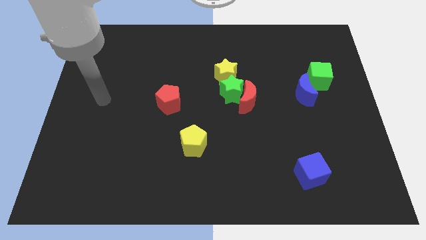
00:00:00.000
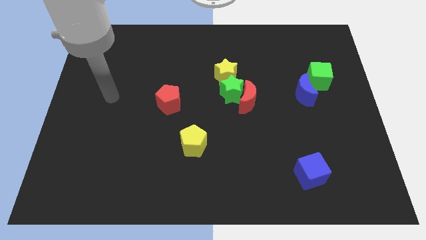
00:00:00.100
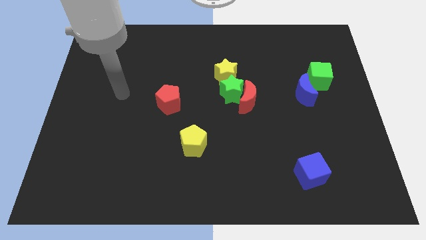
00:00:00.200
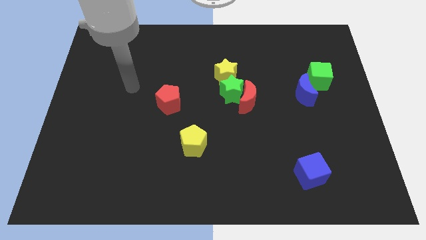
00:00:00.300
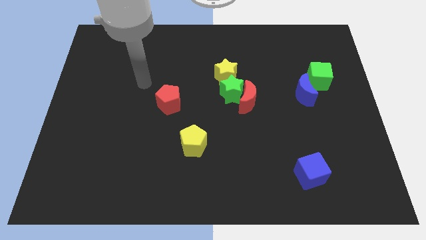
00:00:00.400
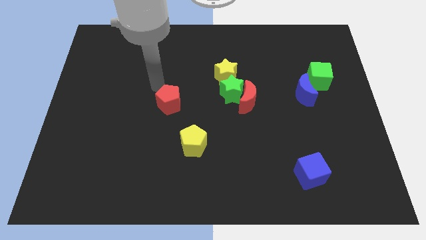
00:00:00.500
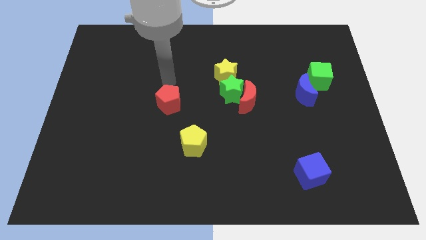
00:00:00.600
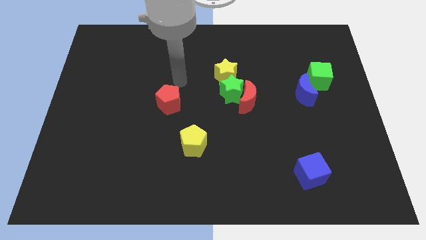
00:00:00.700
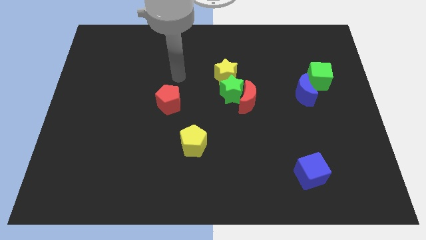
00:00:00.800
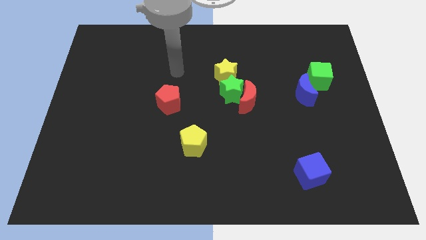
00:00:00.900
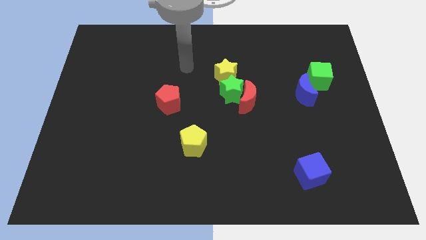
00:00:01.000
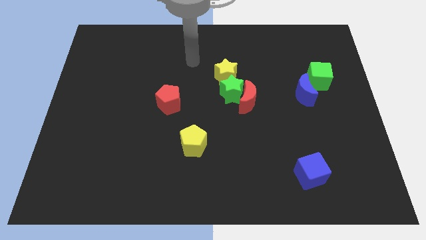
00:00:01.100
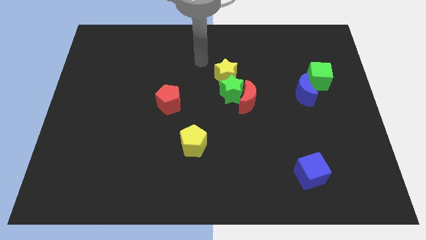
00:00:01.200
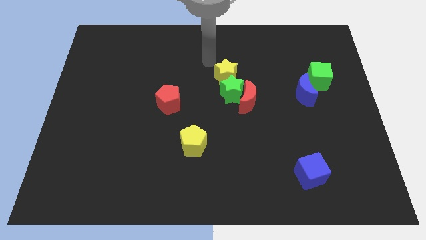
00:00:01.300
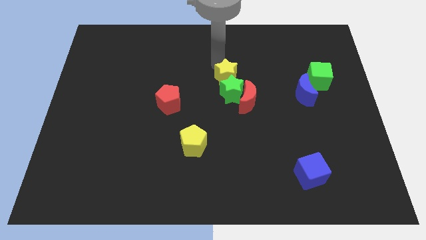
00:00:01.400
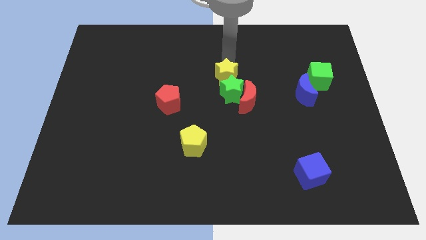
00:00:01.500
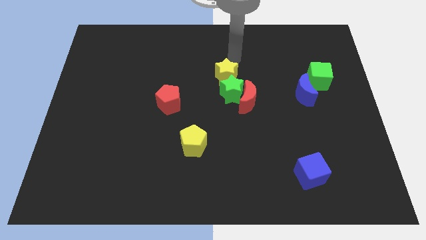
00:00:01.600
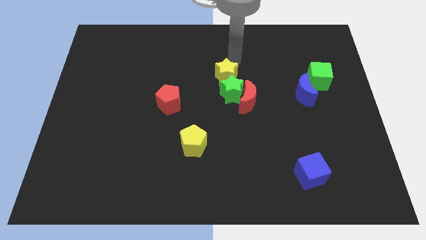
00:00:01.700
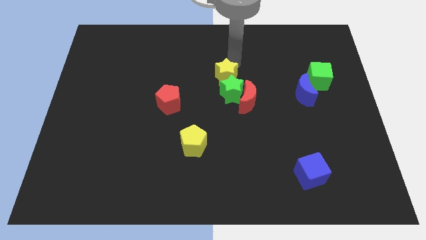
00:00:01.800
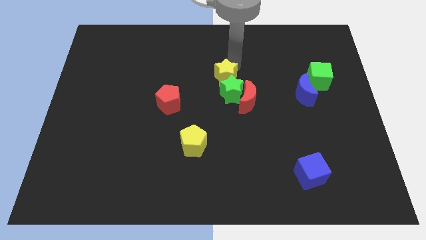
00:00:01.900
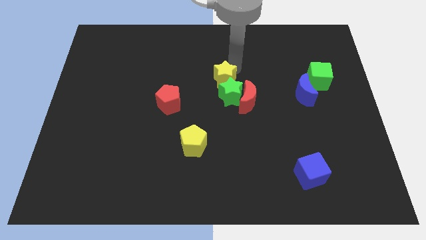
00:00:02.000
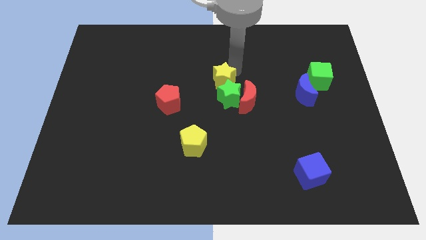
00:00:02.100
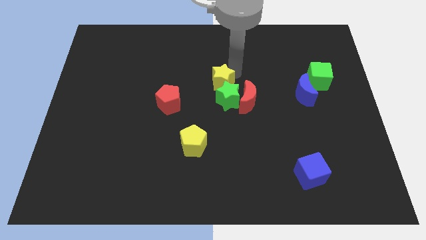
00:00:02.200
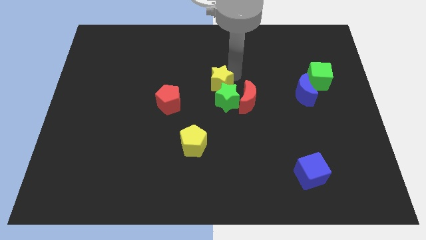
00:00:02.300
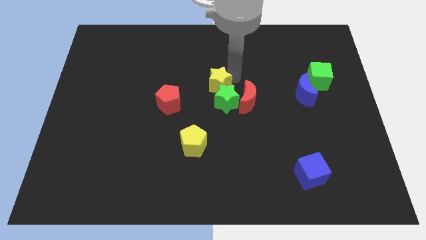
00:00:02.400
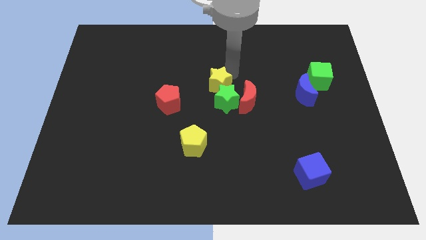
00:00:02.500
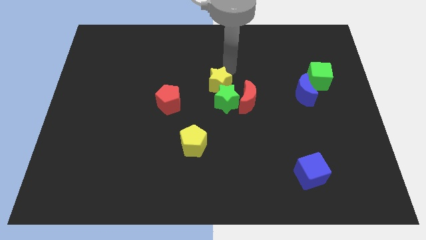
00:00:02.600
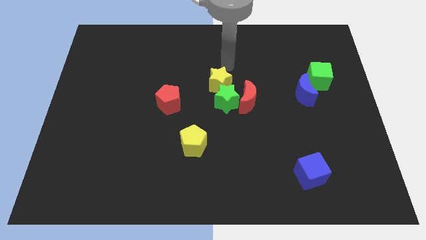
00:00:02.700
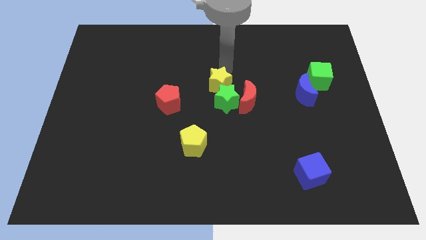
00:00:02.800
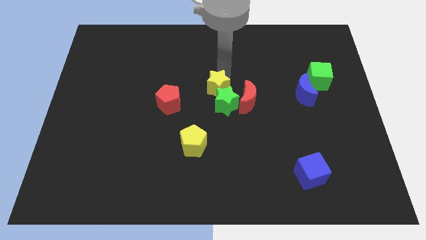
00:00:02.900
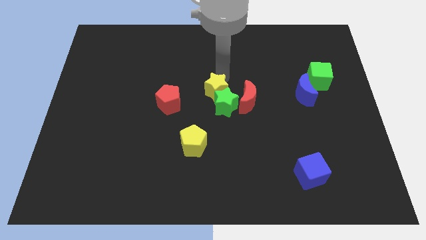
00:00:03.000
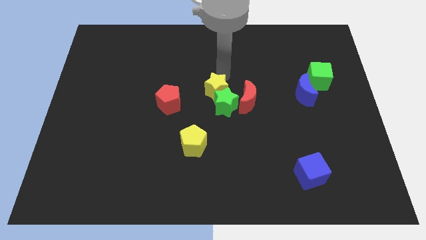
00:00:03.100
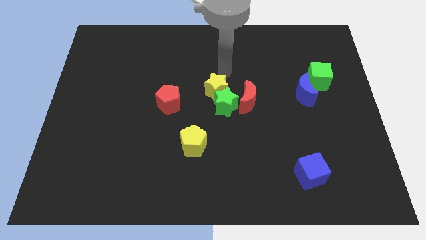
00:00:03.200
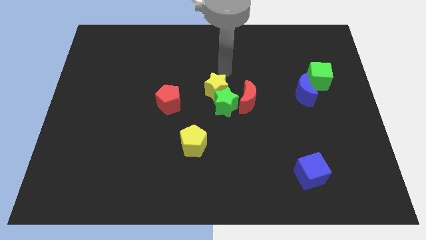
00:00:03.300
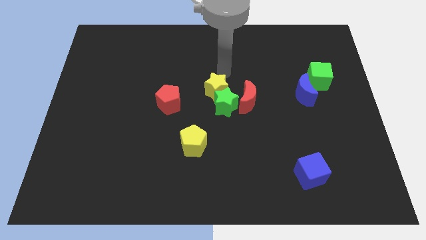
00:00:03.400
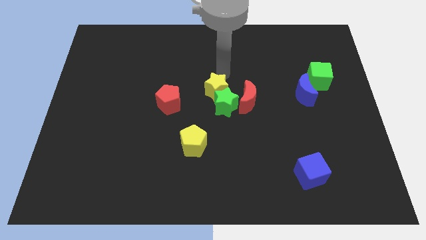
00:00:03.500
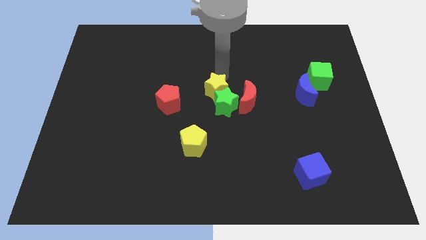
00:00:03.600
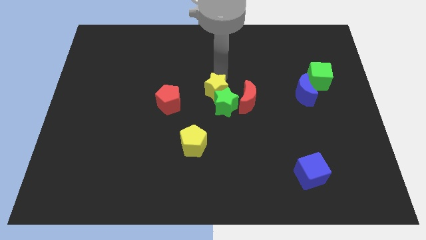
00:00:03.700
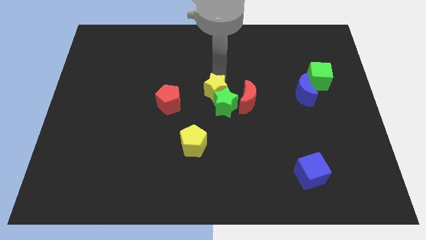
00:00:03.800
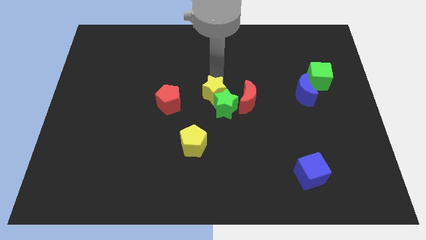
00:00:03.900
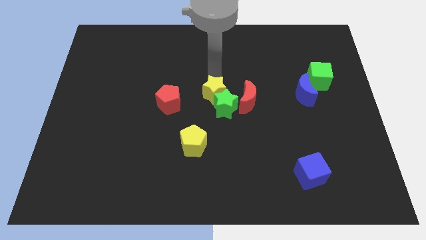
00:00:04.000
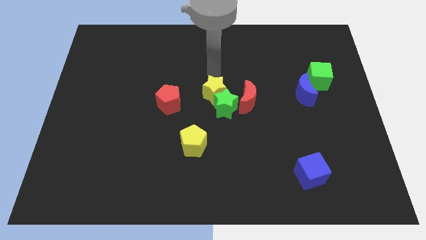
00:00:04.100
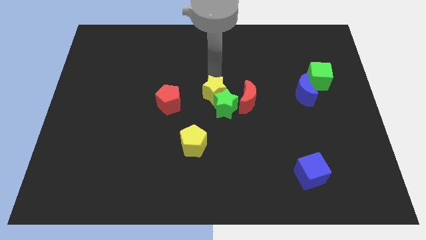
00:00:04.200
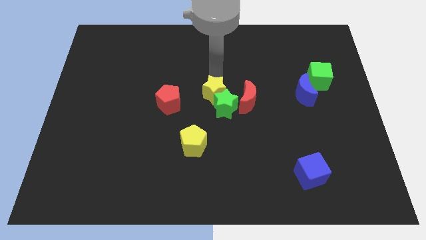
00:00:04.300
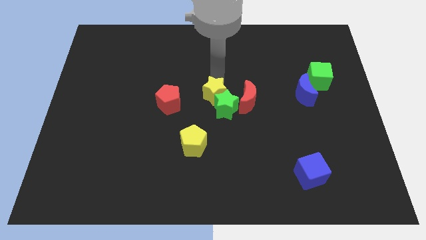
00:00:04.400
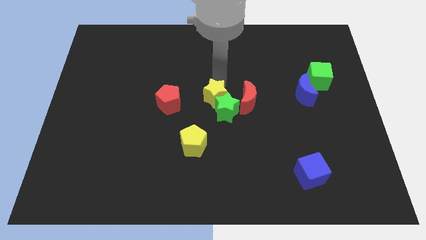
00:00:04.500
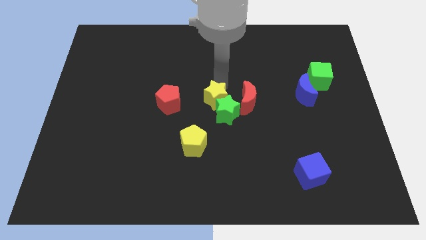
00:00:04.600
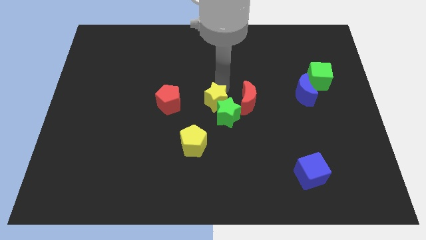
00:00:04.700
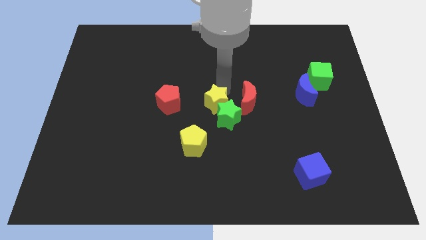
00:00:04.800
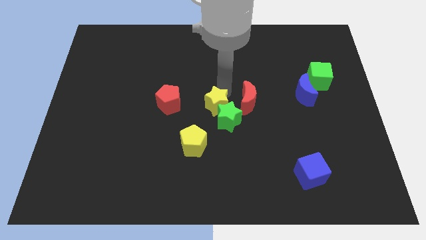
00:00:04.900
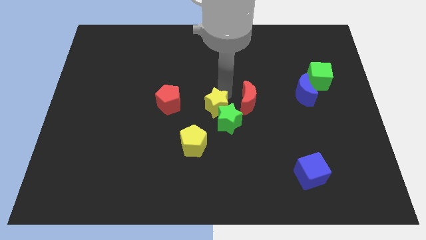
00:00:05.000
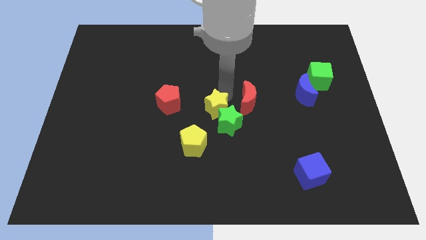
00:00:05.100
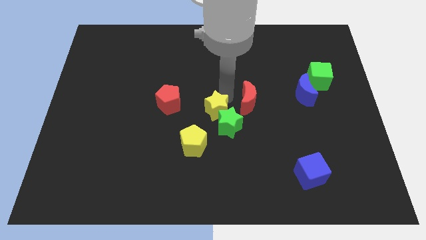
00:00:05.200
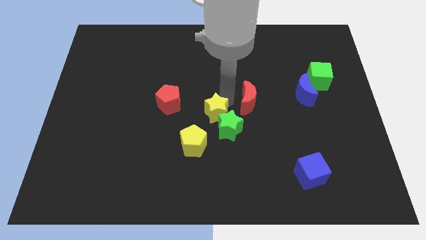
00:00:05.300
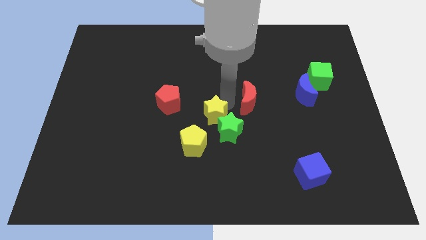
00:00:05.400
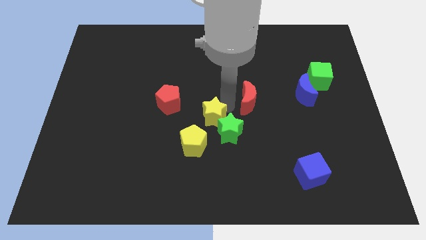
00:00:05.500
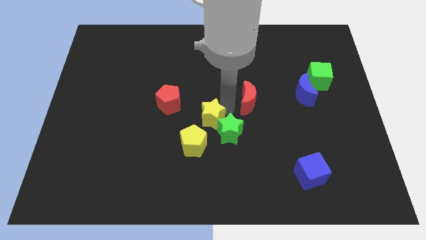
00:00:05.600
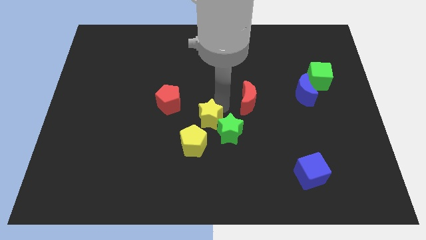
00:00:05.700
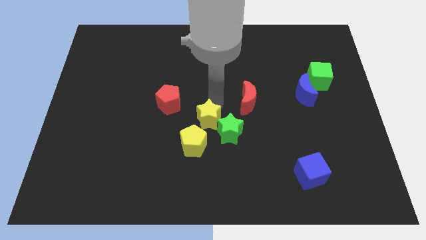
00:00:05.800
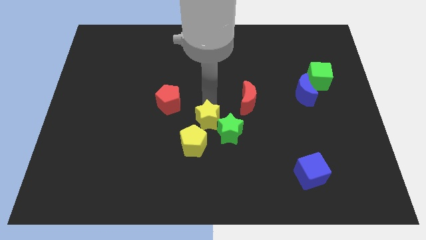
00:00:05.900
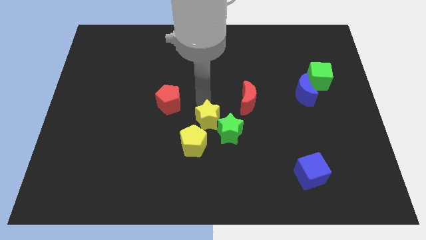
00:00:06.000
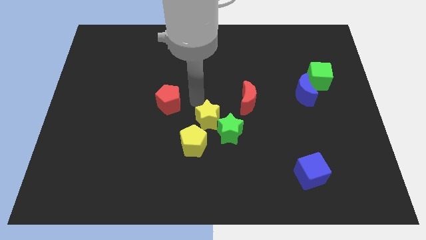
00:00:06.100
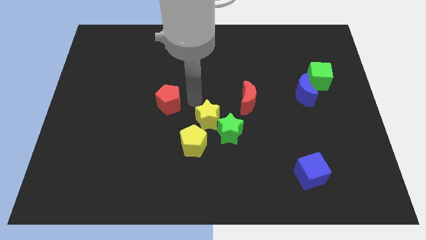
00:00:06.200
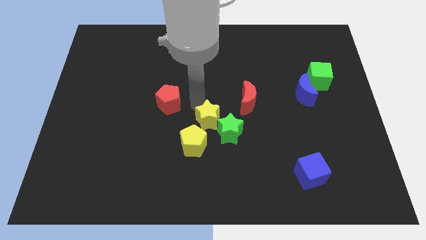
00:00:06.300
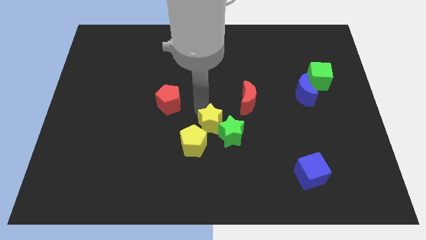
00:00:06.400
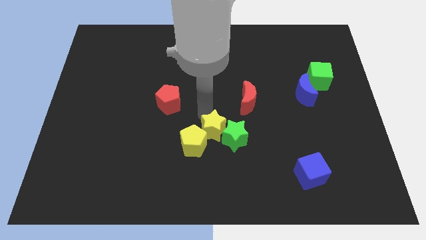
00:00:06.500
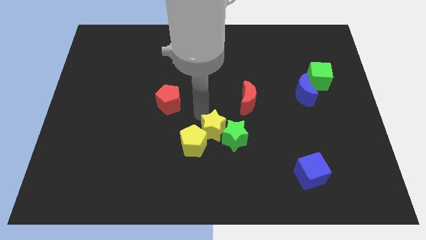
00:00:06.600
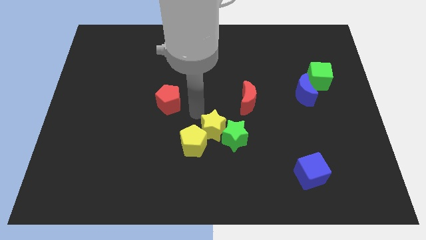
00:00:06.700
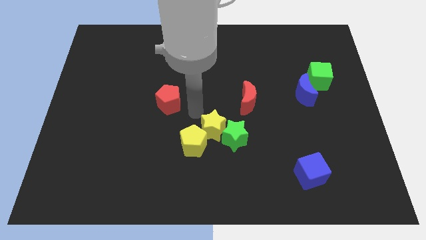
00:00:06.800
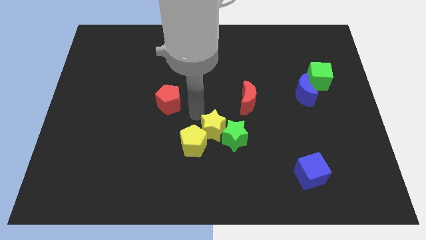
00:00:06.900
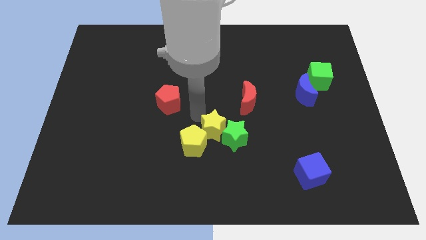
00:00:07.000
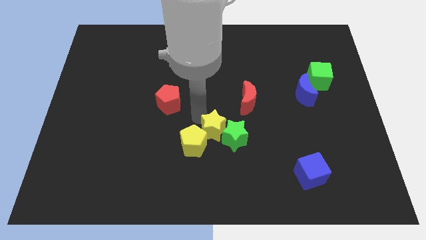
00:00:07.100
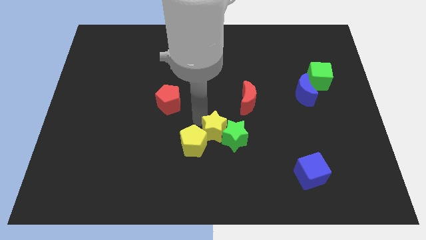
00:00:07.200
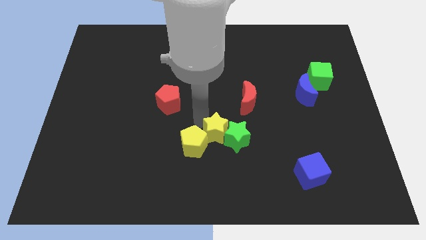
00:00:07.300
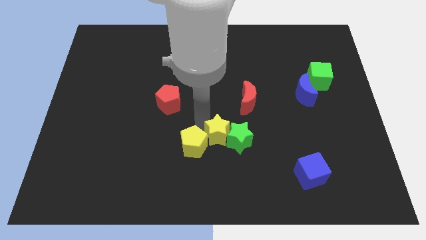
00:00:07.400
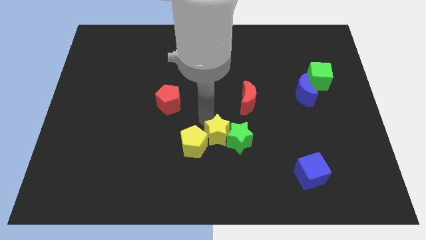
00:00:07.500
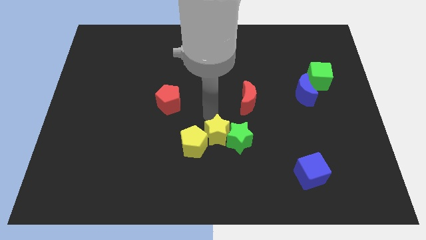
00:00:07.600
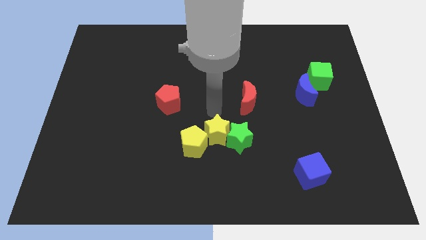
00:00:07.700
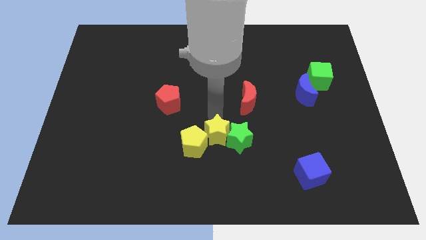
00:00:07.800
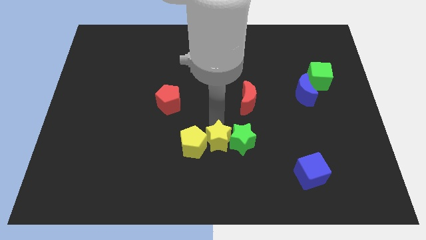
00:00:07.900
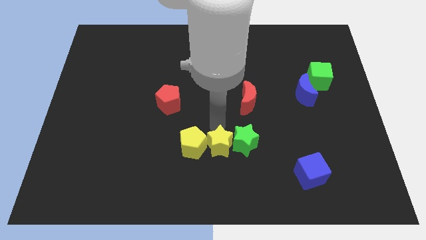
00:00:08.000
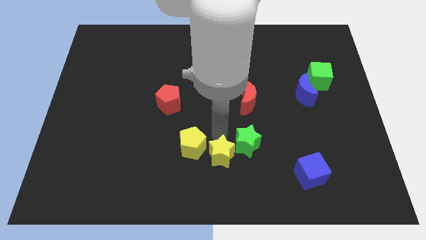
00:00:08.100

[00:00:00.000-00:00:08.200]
slide the yellow star to the bottom side
